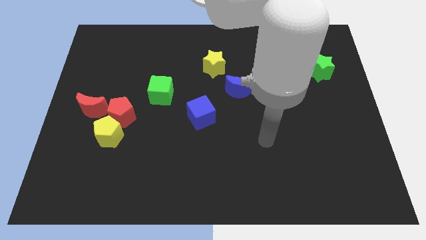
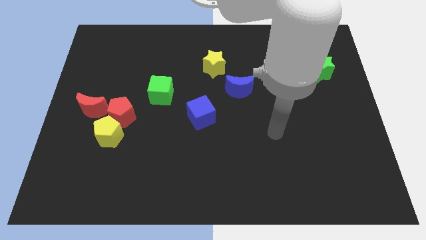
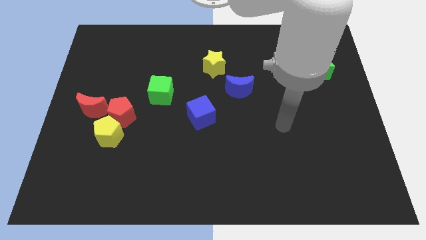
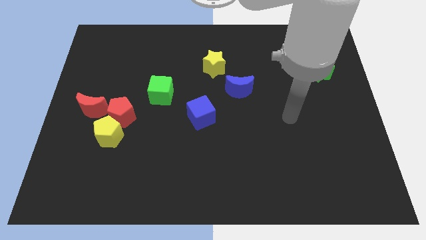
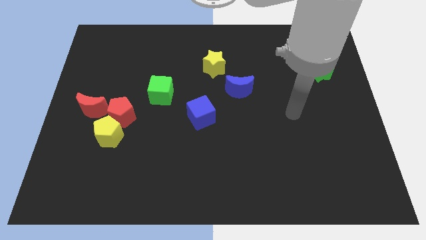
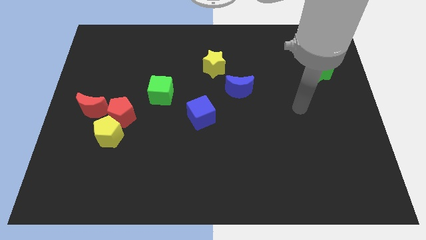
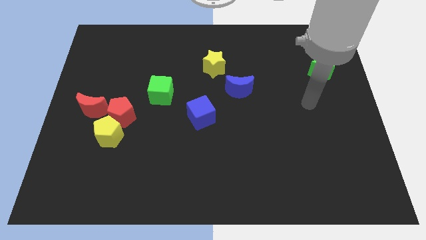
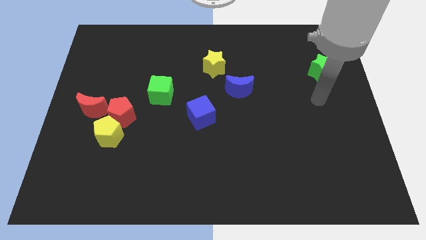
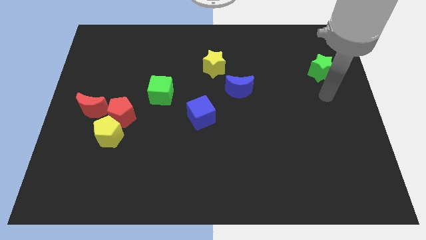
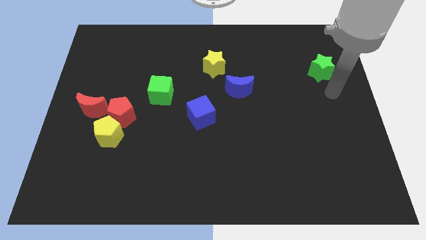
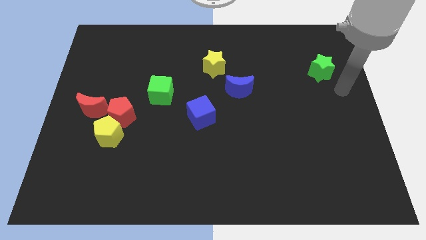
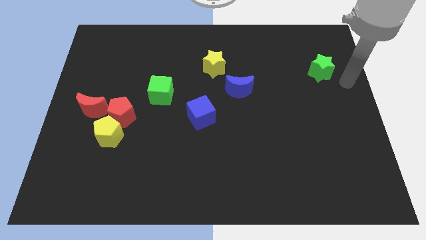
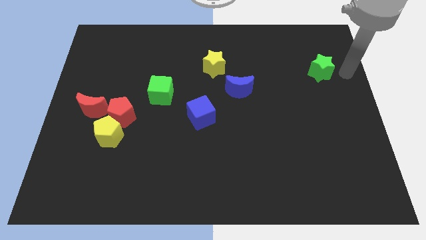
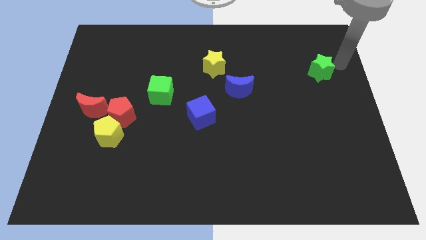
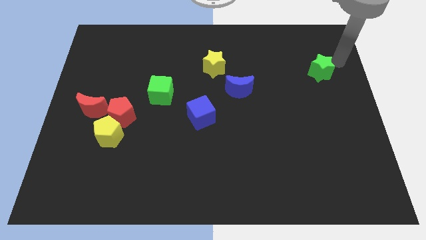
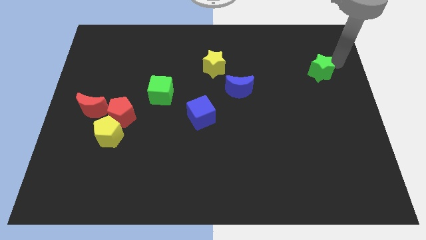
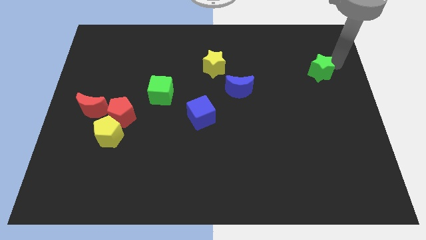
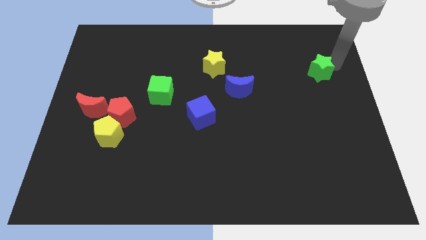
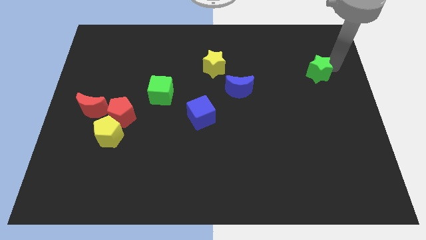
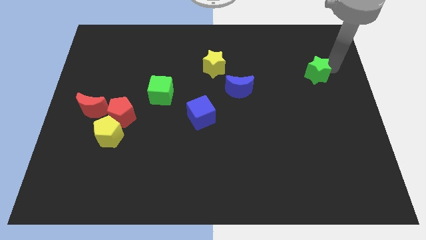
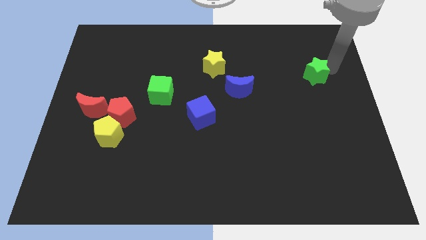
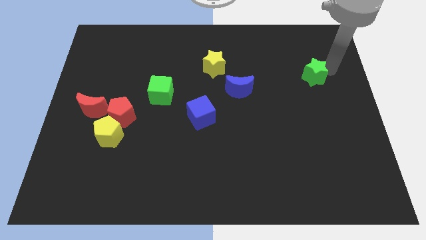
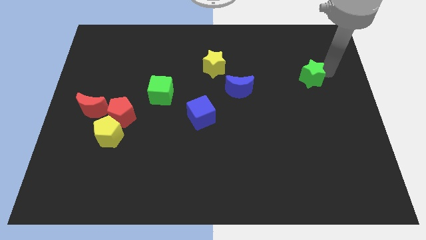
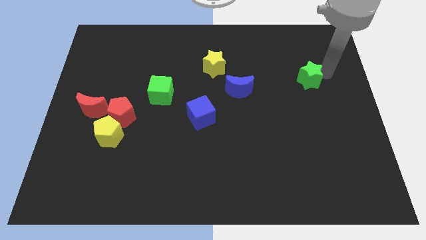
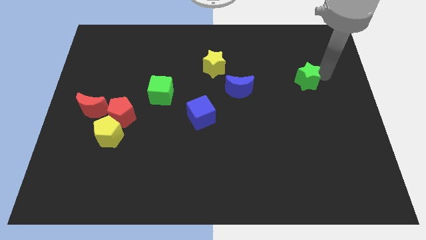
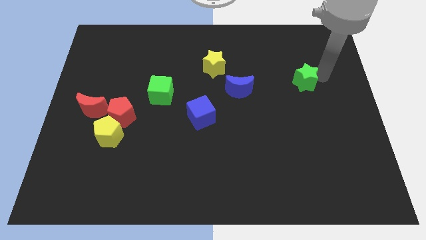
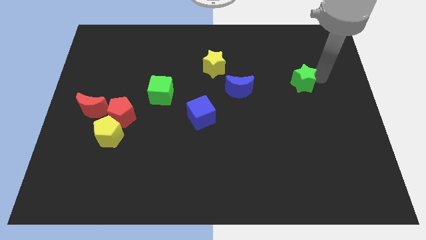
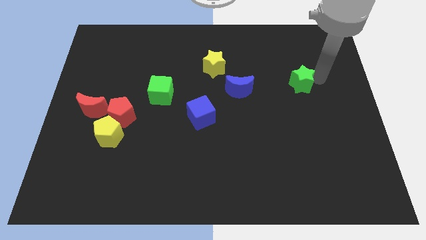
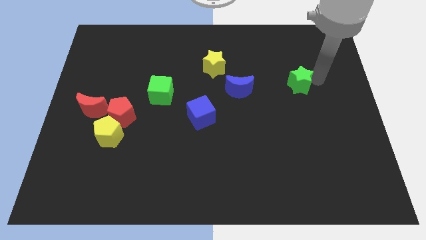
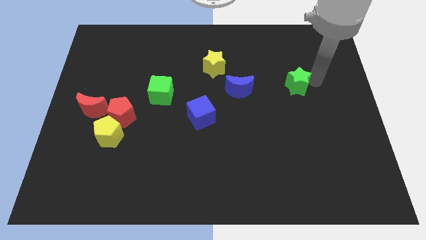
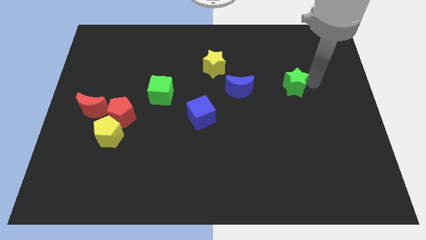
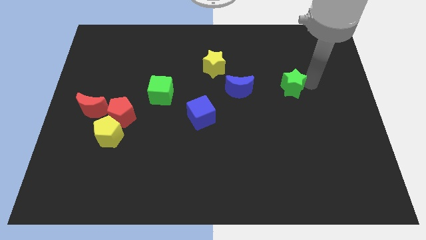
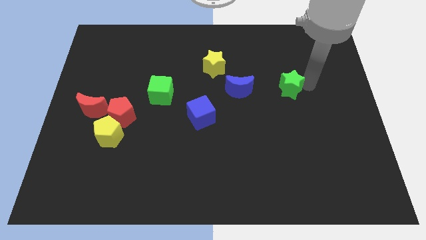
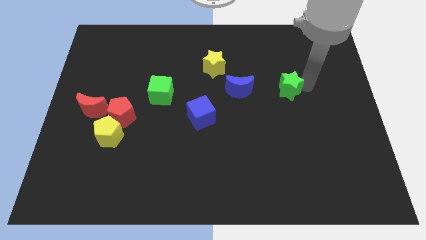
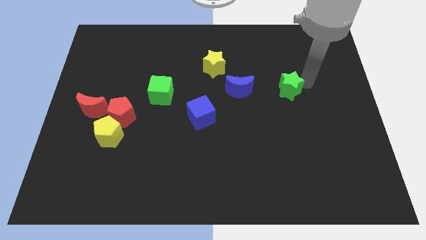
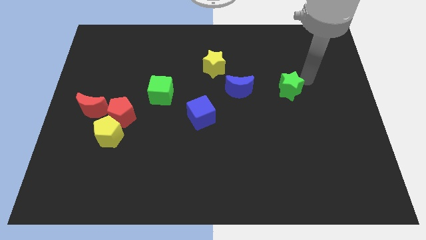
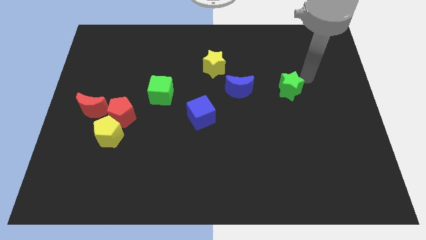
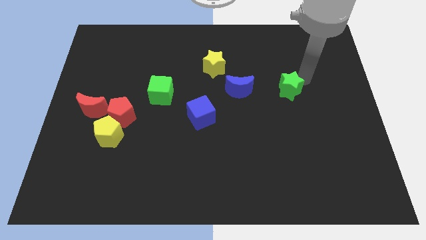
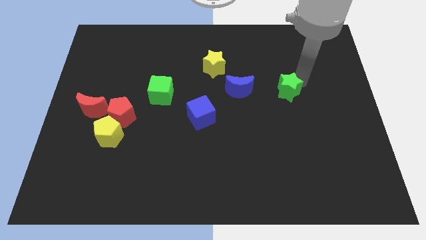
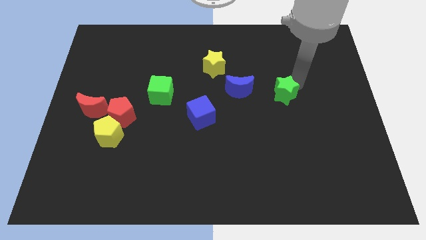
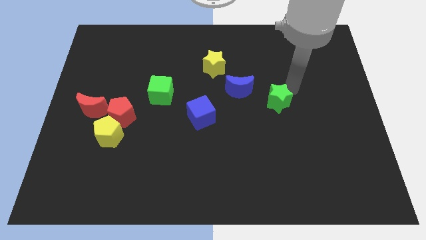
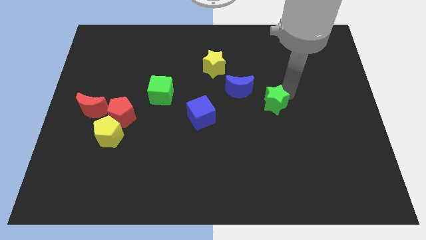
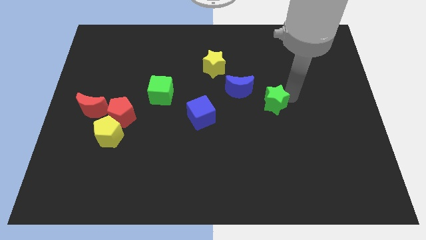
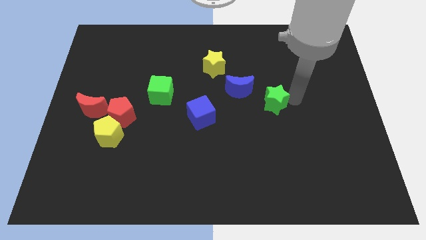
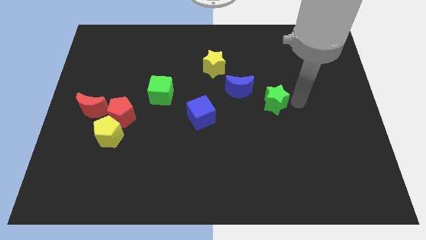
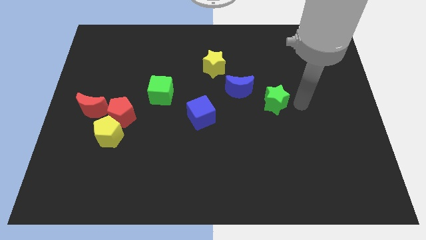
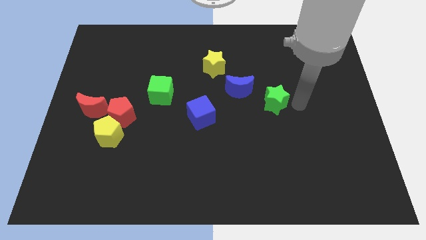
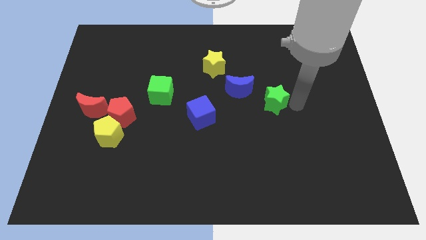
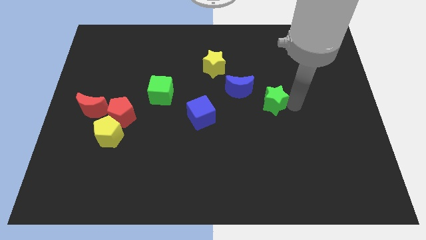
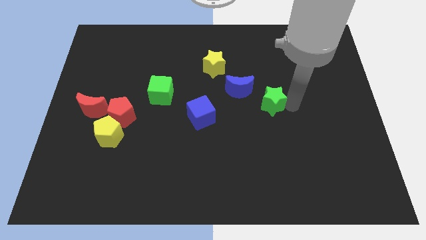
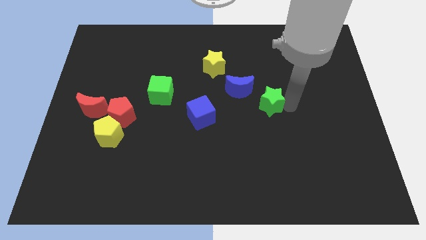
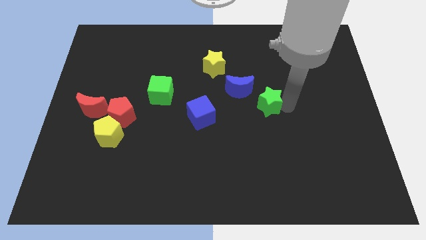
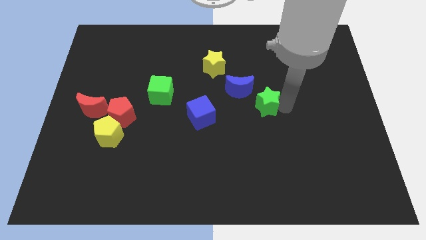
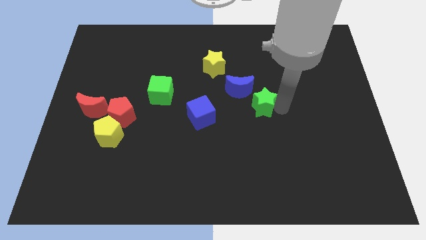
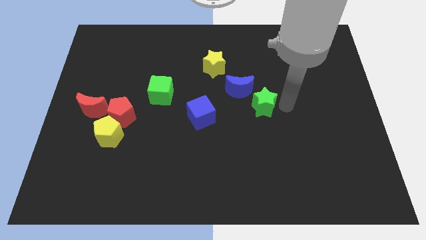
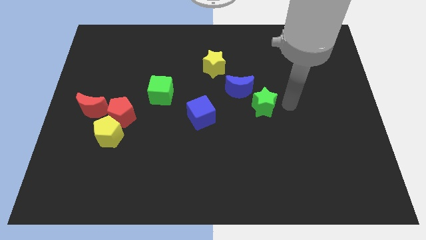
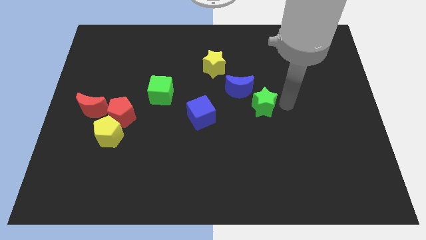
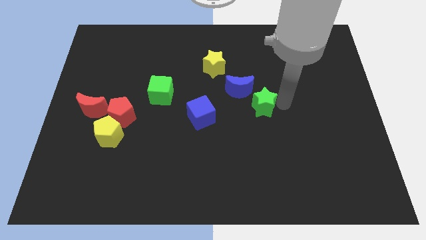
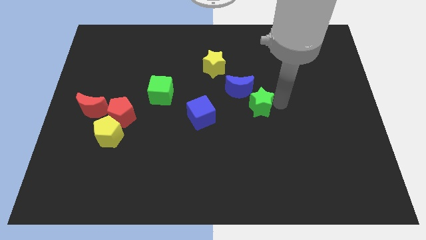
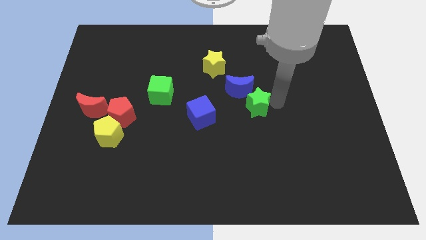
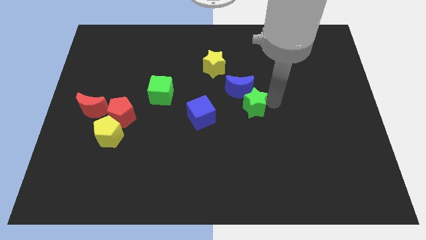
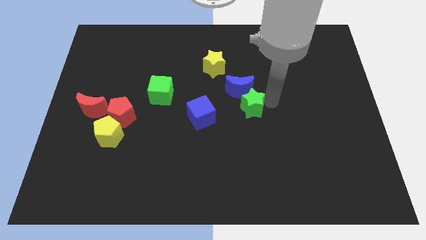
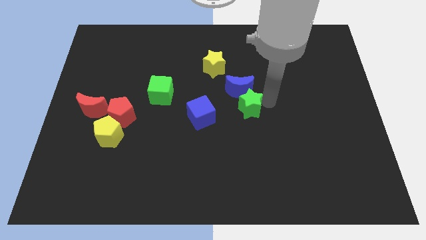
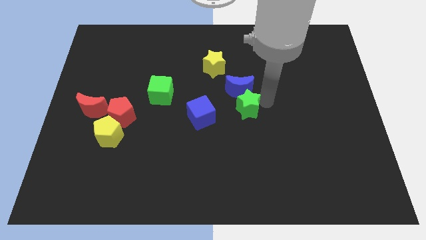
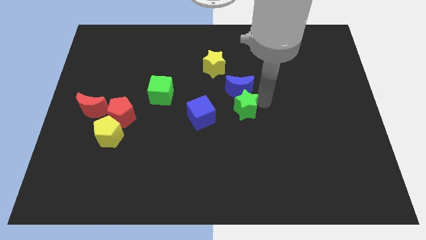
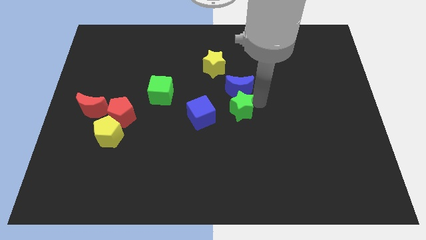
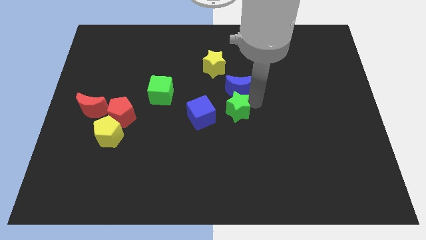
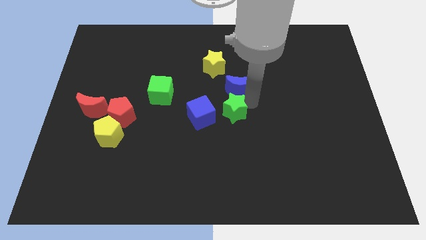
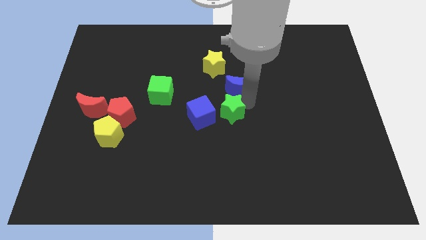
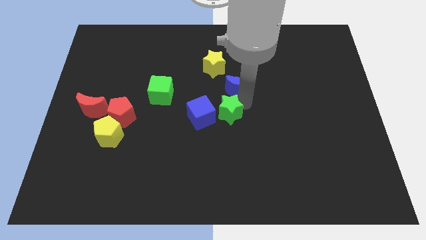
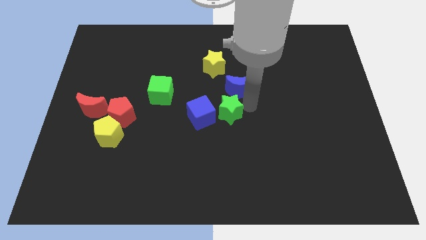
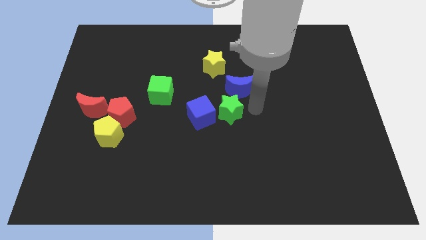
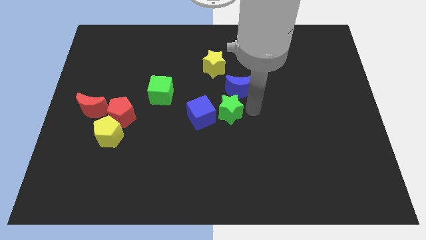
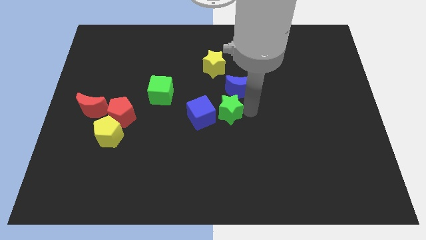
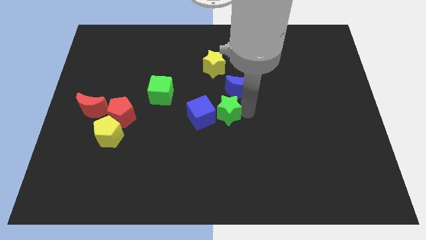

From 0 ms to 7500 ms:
move the green star next to the blue cube
